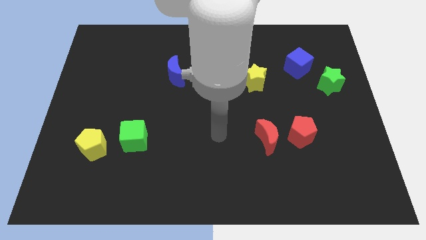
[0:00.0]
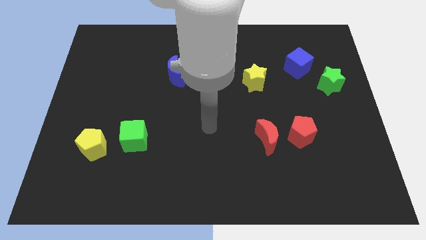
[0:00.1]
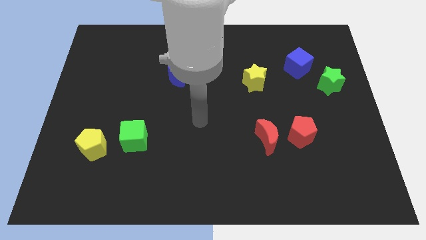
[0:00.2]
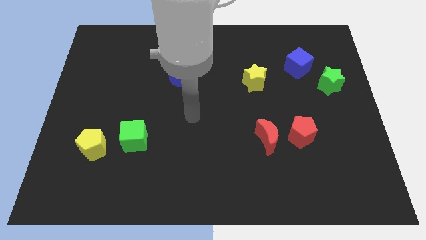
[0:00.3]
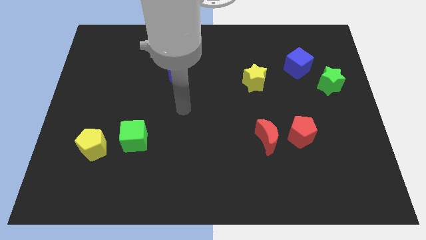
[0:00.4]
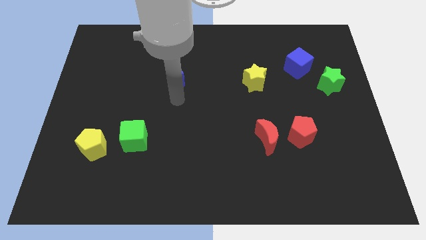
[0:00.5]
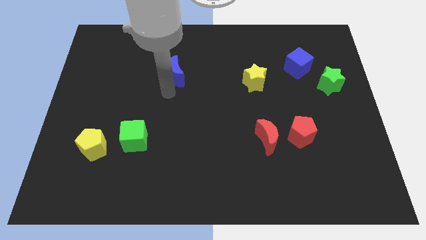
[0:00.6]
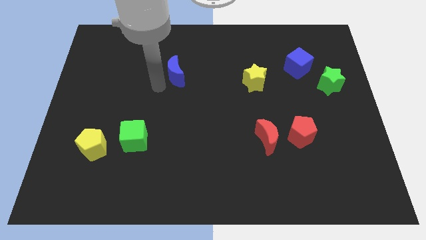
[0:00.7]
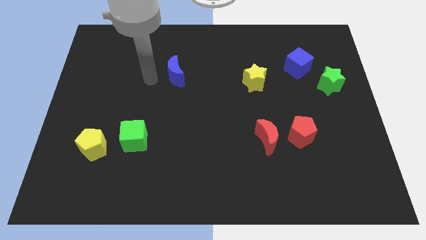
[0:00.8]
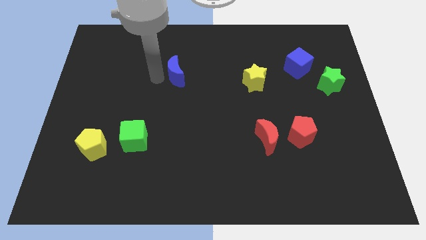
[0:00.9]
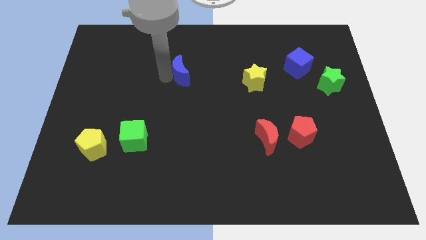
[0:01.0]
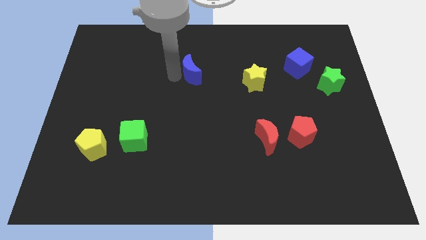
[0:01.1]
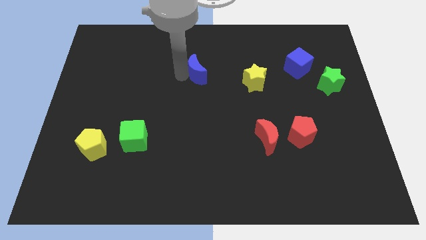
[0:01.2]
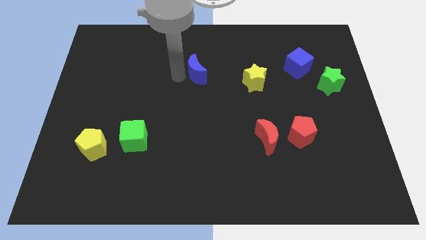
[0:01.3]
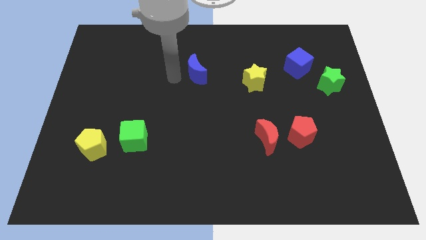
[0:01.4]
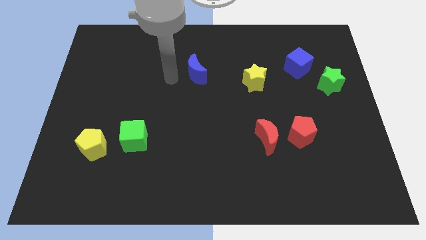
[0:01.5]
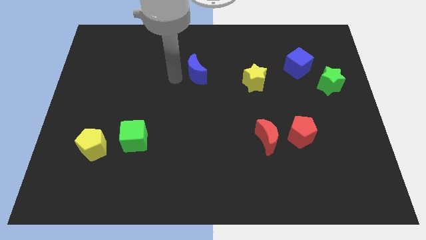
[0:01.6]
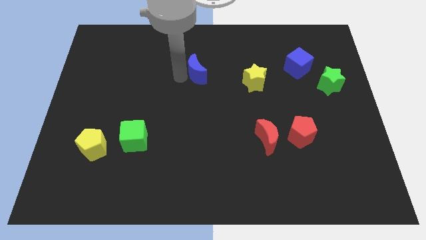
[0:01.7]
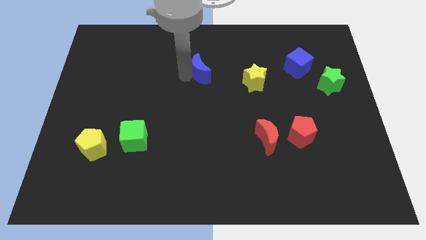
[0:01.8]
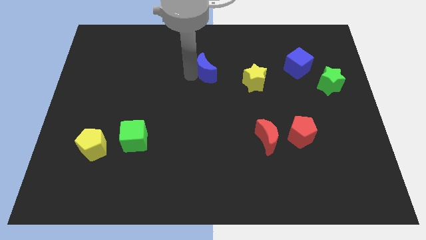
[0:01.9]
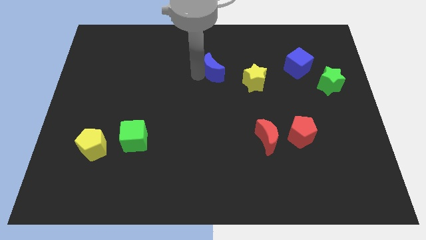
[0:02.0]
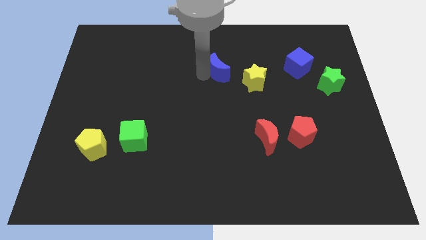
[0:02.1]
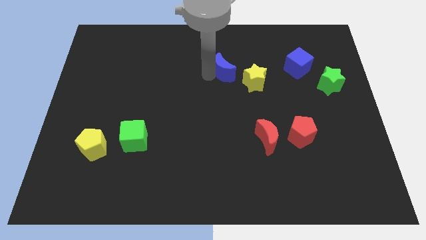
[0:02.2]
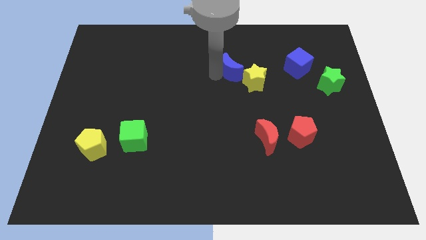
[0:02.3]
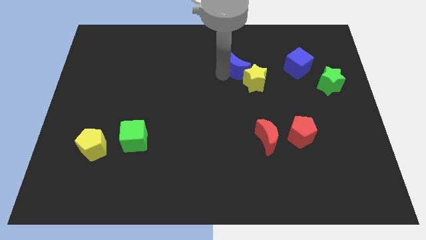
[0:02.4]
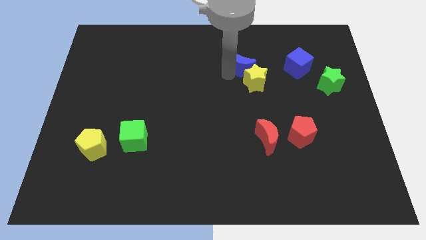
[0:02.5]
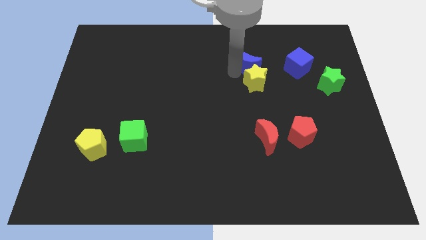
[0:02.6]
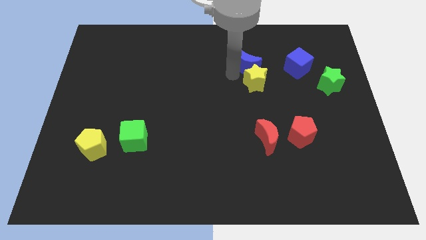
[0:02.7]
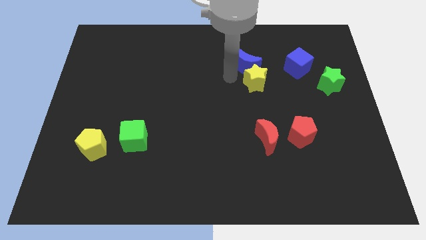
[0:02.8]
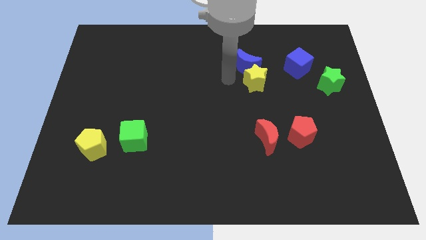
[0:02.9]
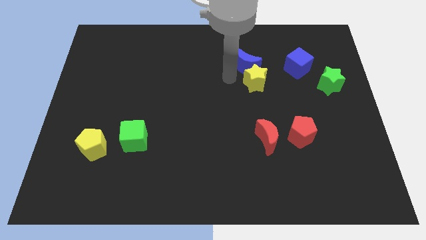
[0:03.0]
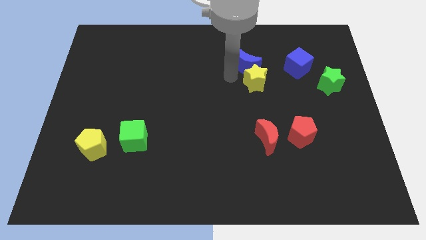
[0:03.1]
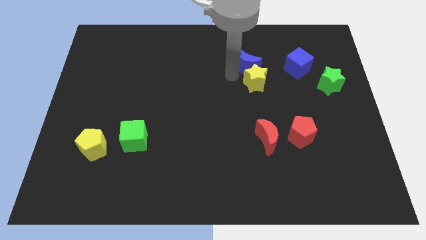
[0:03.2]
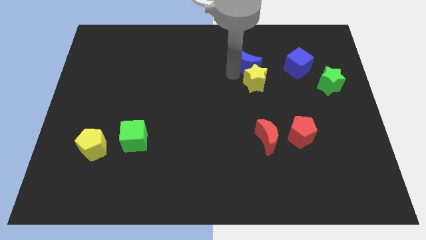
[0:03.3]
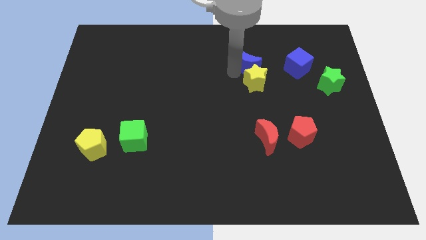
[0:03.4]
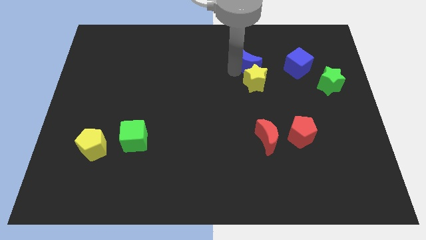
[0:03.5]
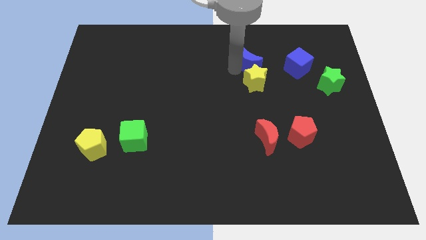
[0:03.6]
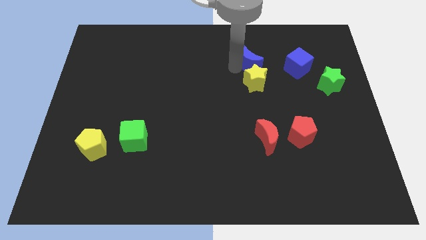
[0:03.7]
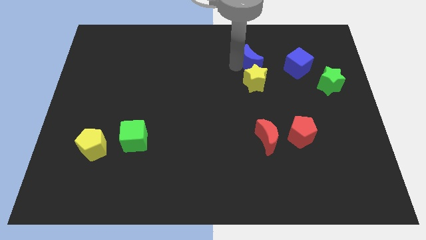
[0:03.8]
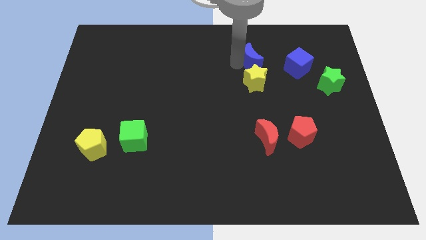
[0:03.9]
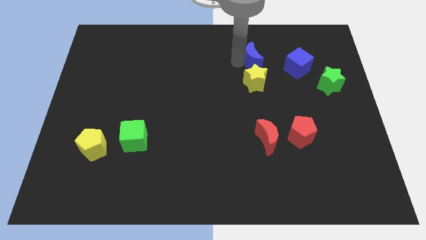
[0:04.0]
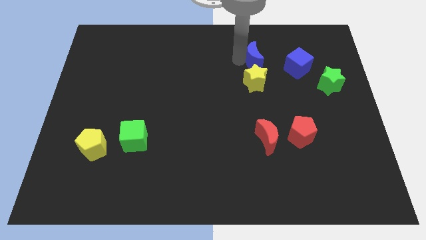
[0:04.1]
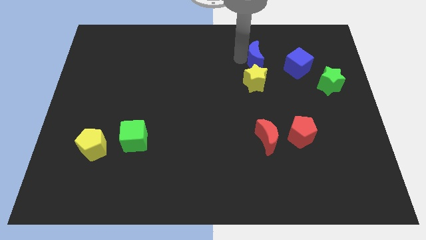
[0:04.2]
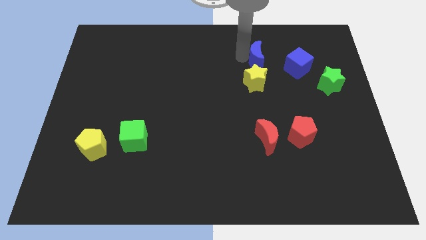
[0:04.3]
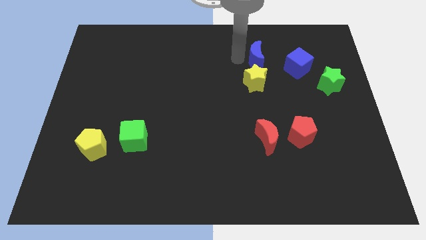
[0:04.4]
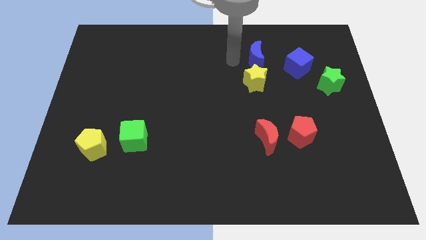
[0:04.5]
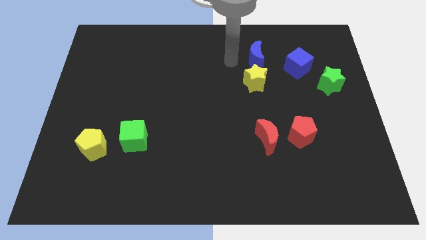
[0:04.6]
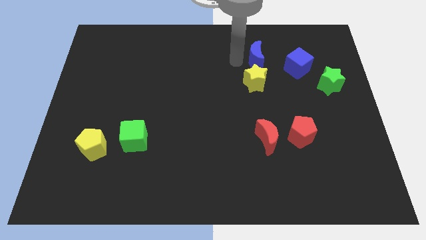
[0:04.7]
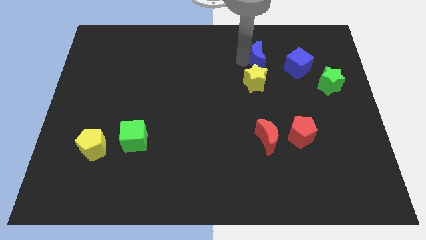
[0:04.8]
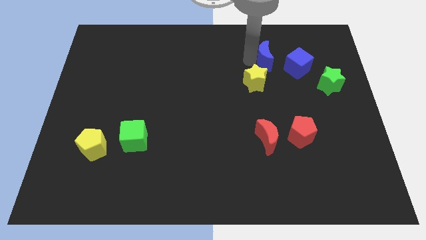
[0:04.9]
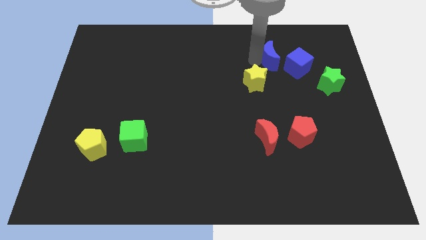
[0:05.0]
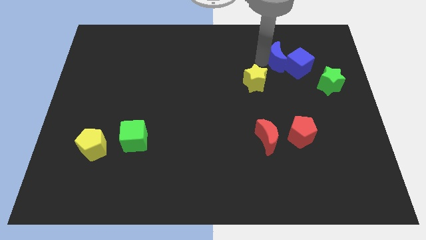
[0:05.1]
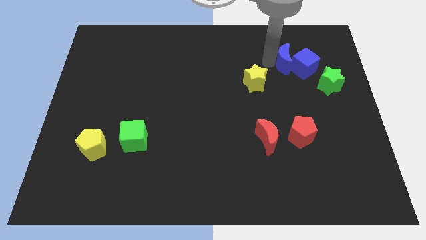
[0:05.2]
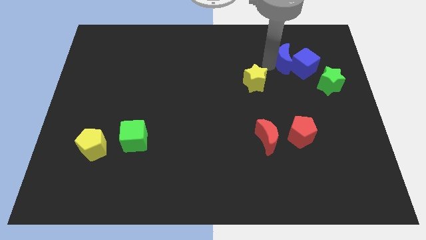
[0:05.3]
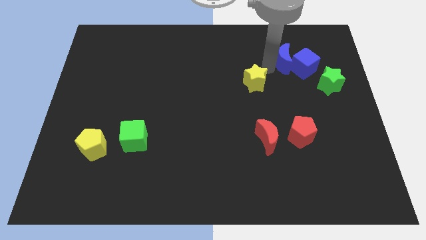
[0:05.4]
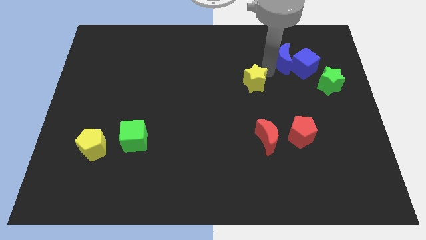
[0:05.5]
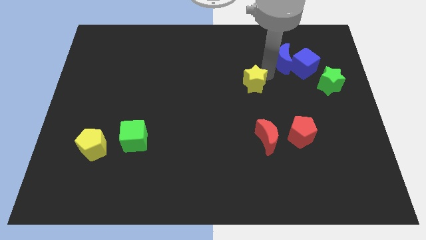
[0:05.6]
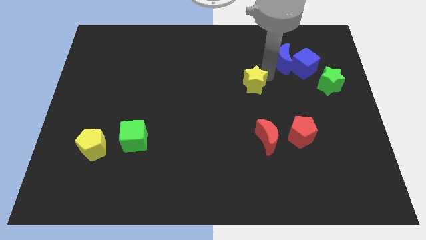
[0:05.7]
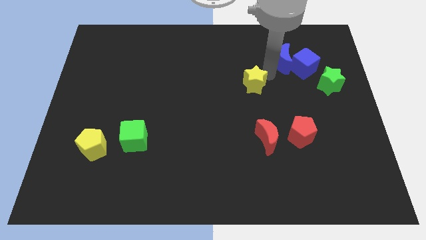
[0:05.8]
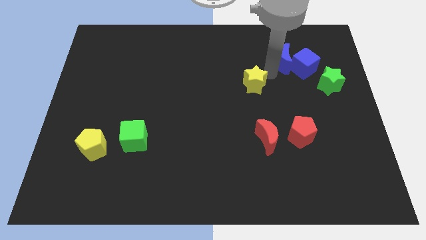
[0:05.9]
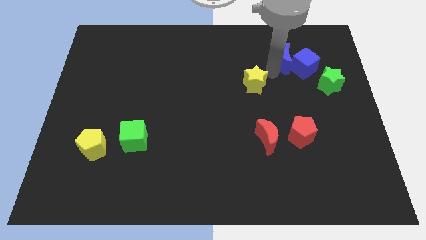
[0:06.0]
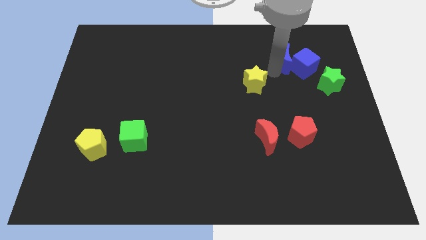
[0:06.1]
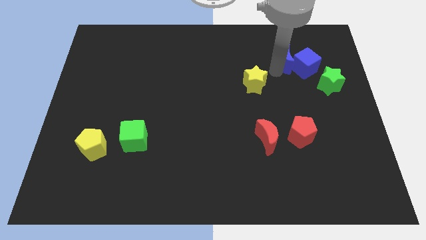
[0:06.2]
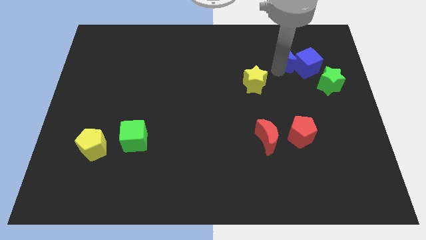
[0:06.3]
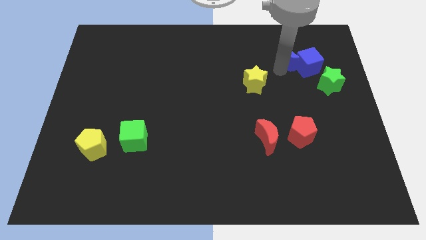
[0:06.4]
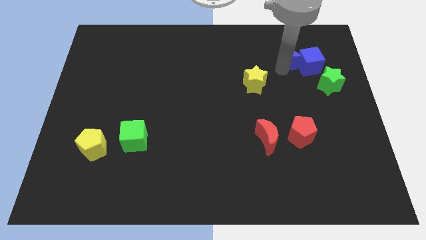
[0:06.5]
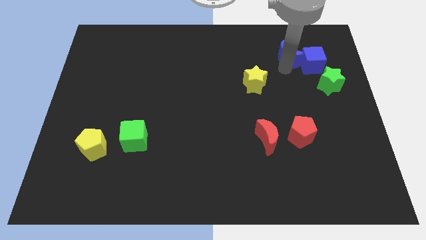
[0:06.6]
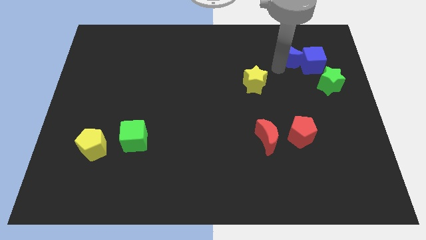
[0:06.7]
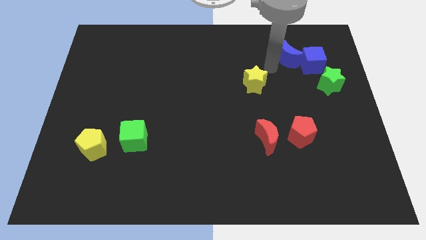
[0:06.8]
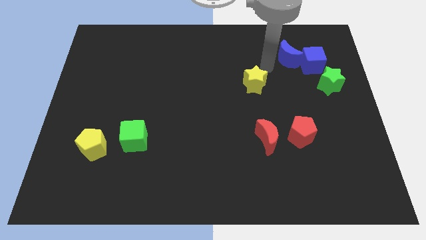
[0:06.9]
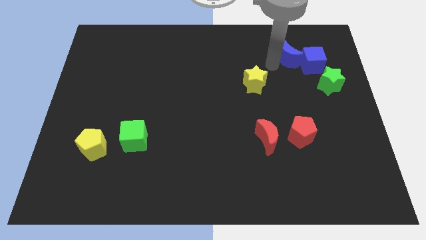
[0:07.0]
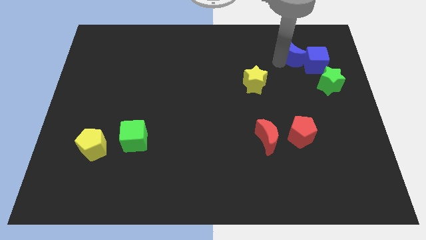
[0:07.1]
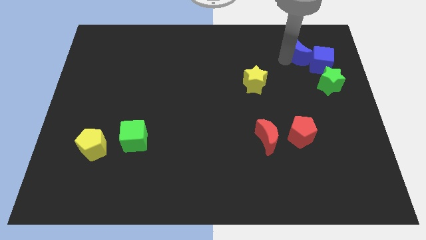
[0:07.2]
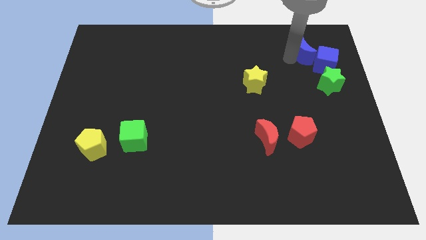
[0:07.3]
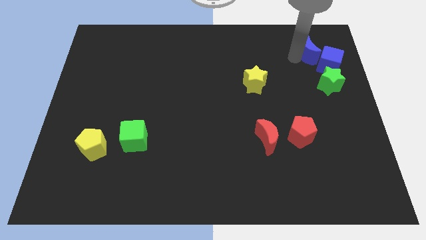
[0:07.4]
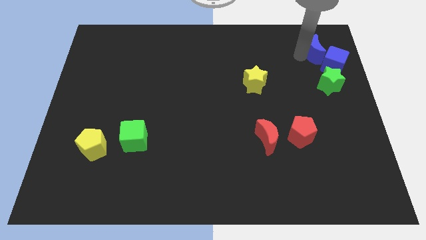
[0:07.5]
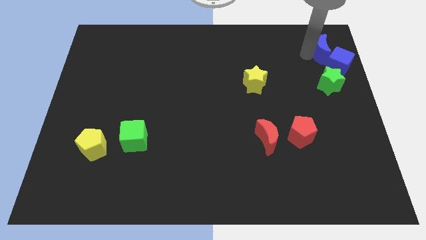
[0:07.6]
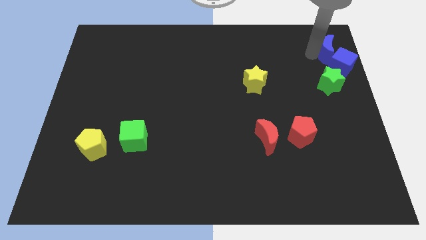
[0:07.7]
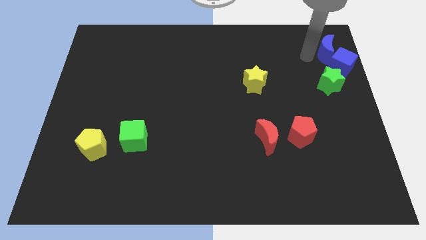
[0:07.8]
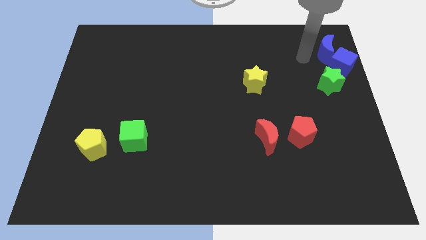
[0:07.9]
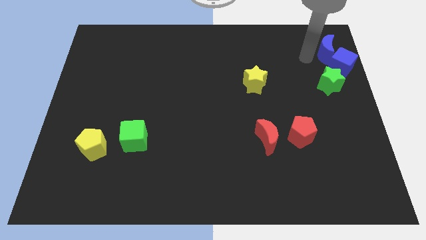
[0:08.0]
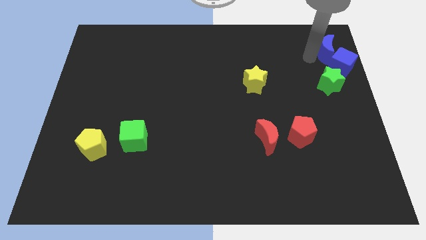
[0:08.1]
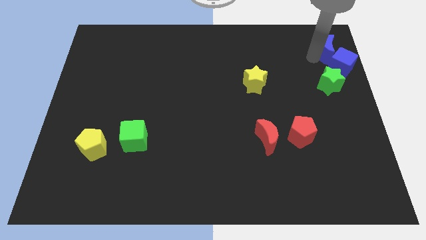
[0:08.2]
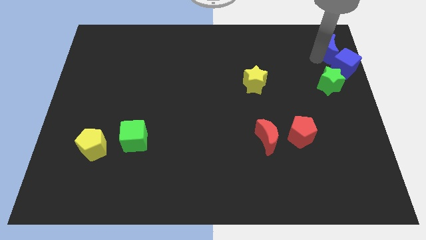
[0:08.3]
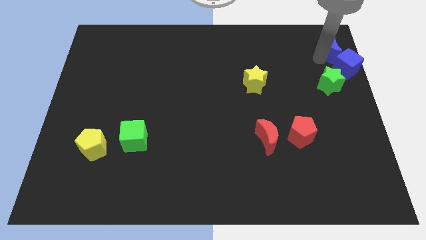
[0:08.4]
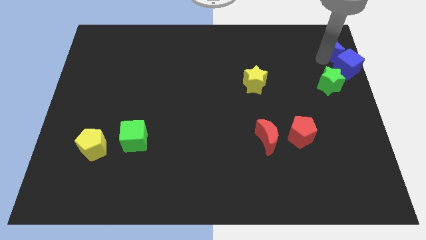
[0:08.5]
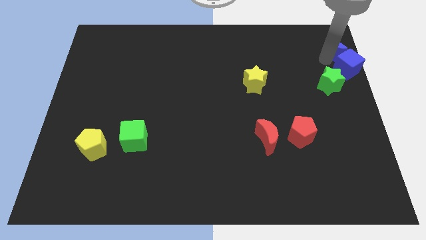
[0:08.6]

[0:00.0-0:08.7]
move the blue moon to the top right
